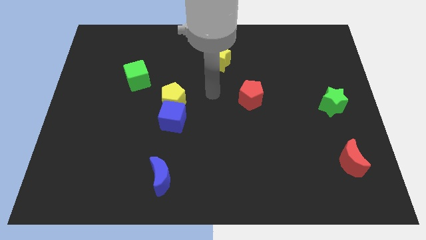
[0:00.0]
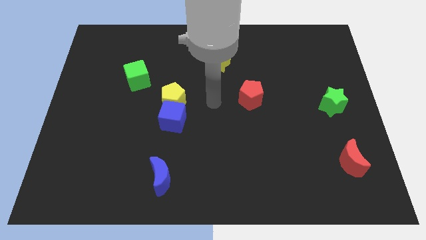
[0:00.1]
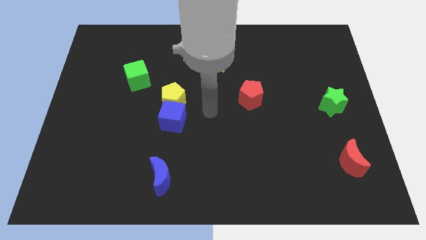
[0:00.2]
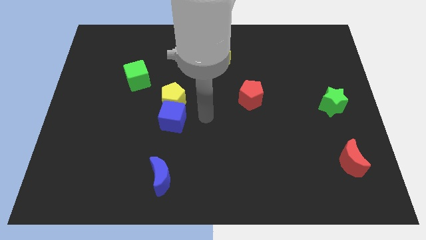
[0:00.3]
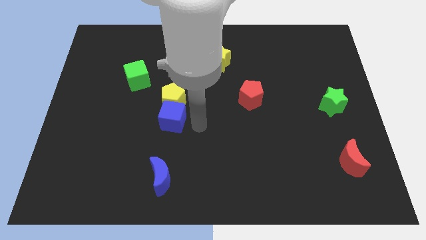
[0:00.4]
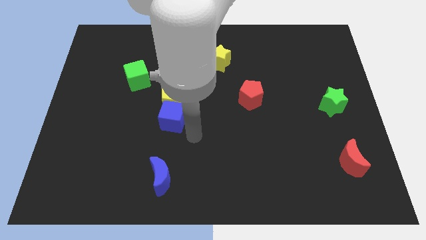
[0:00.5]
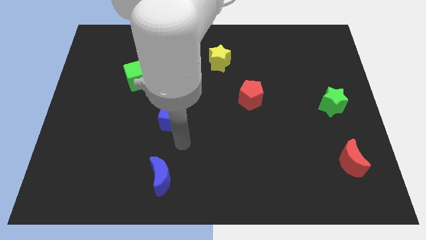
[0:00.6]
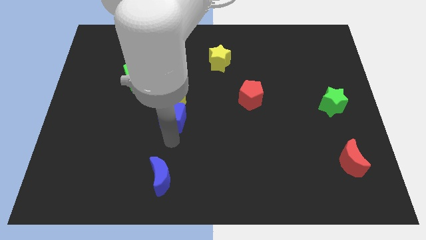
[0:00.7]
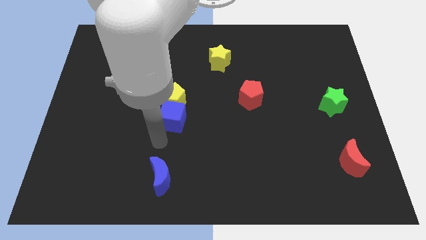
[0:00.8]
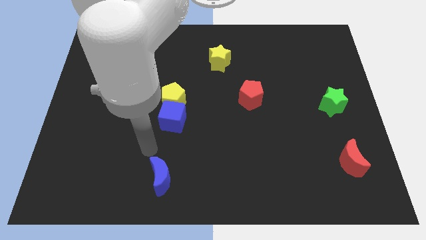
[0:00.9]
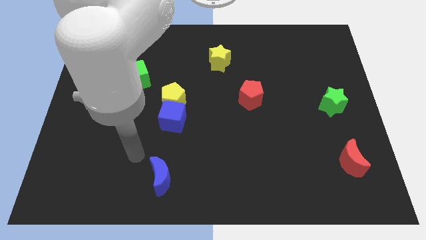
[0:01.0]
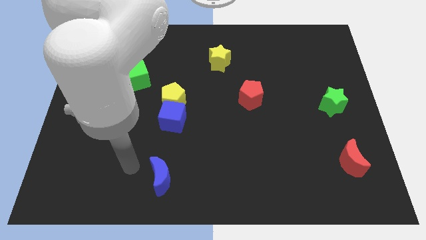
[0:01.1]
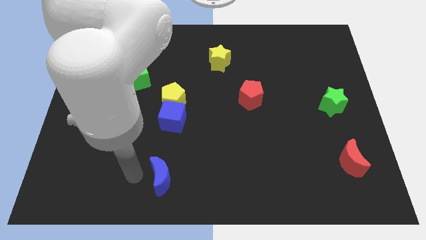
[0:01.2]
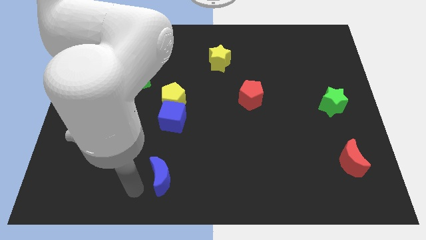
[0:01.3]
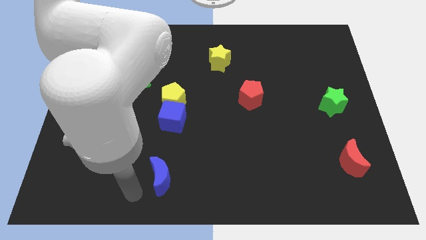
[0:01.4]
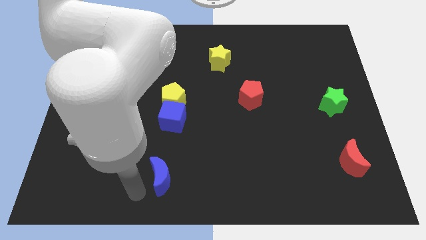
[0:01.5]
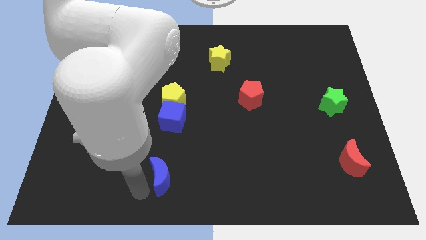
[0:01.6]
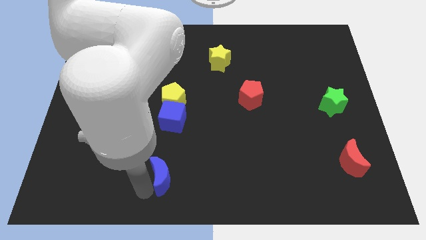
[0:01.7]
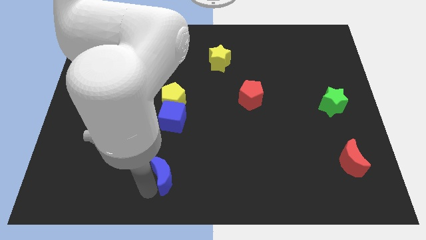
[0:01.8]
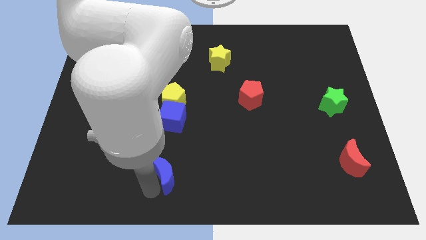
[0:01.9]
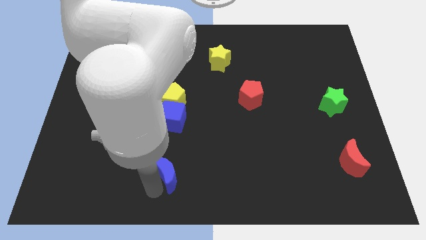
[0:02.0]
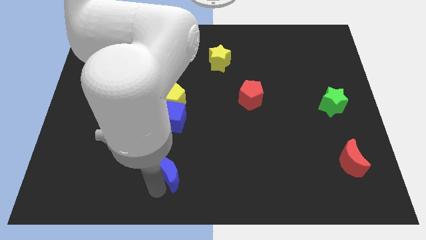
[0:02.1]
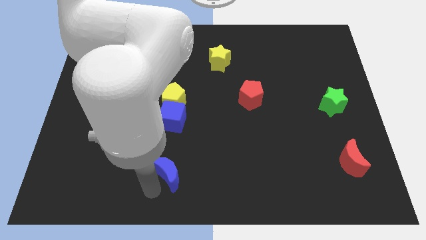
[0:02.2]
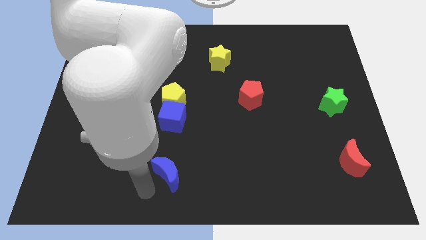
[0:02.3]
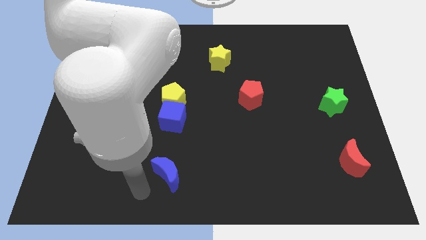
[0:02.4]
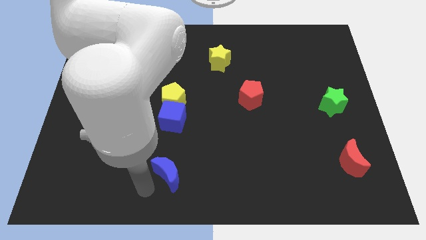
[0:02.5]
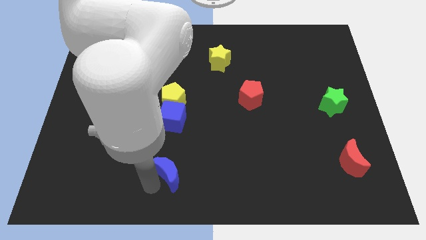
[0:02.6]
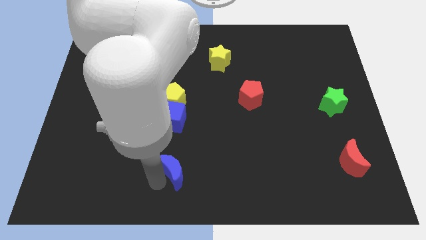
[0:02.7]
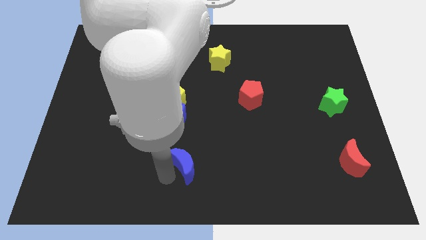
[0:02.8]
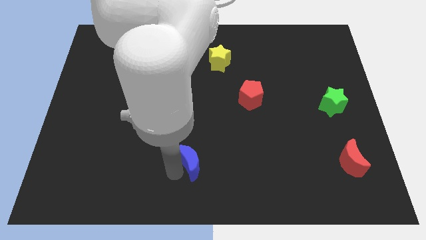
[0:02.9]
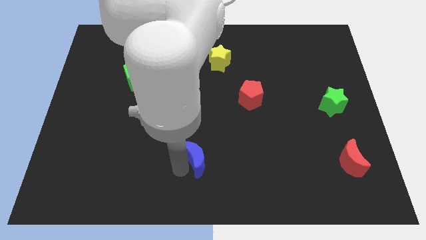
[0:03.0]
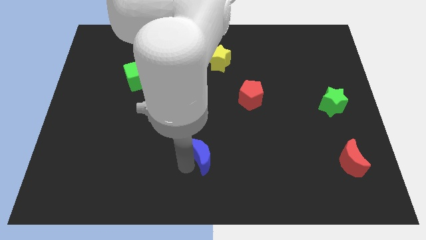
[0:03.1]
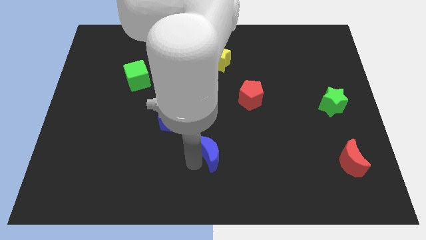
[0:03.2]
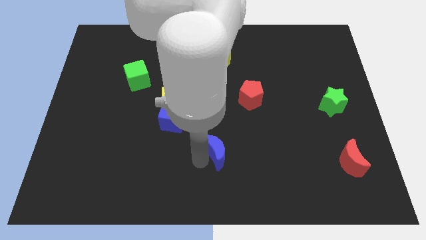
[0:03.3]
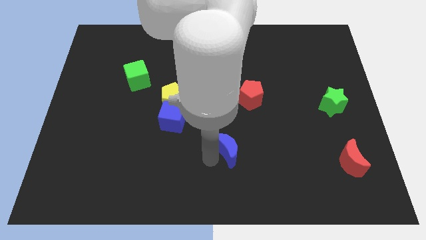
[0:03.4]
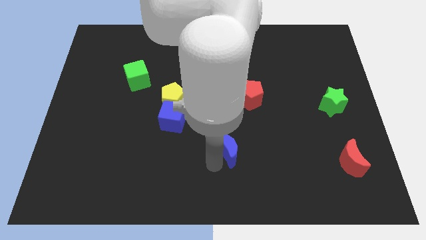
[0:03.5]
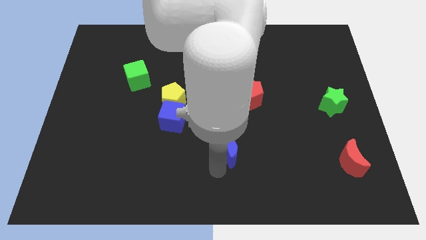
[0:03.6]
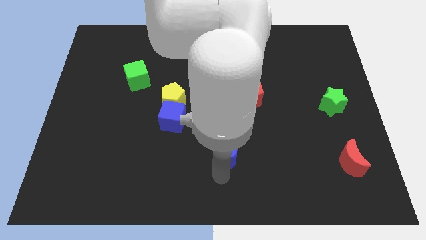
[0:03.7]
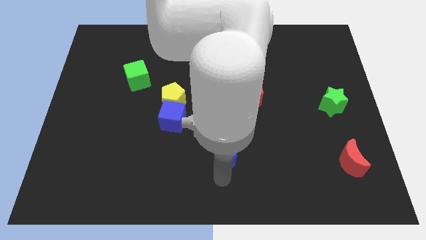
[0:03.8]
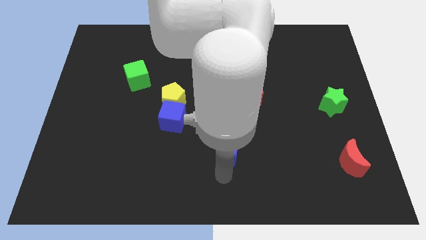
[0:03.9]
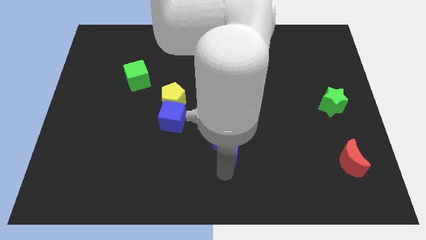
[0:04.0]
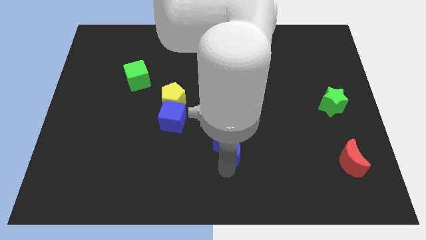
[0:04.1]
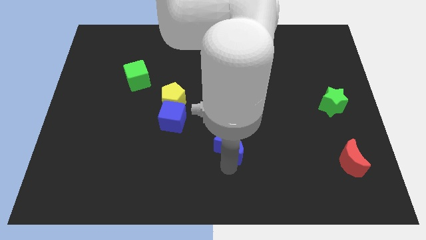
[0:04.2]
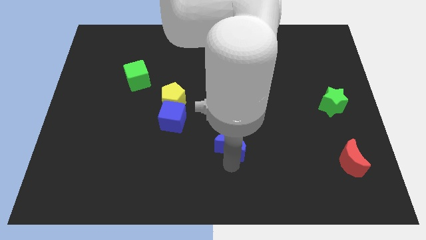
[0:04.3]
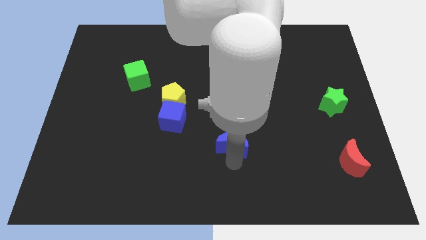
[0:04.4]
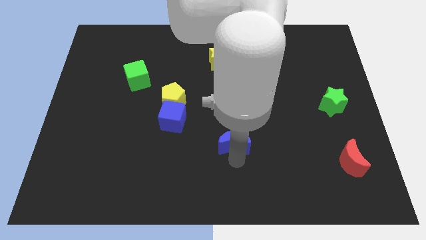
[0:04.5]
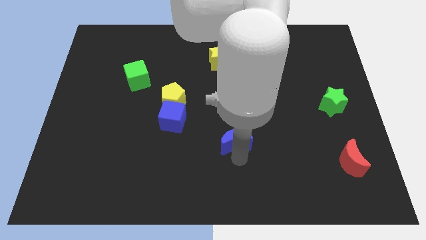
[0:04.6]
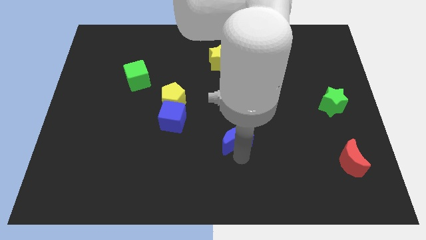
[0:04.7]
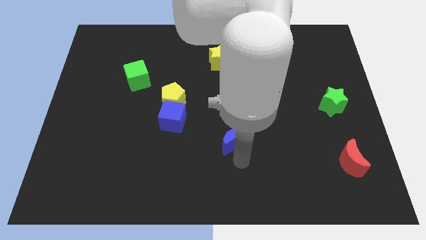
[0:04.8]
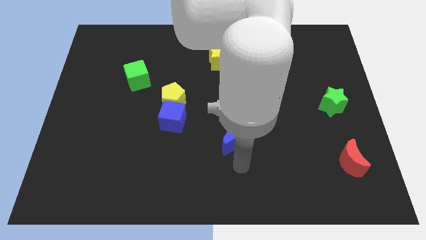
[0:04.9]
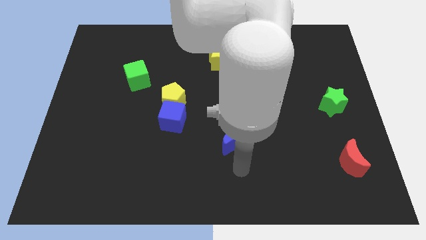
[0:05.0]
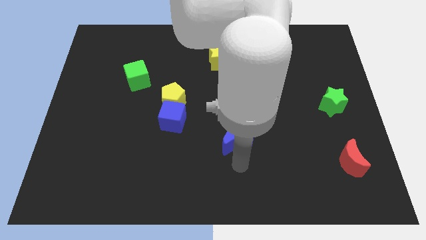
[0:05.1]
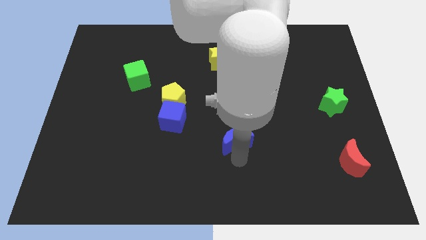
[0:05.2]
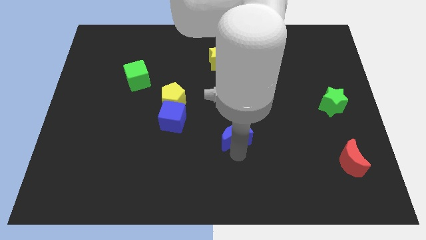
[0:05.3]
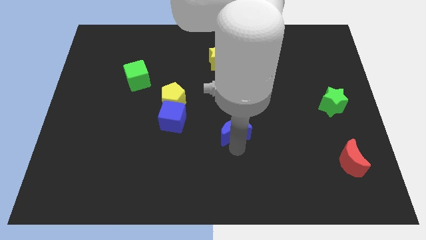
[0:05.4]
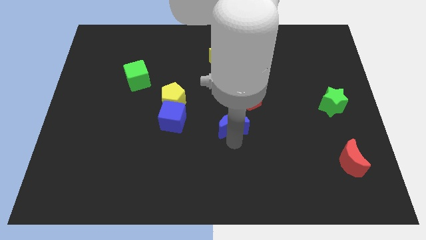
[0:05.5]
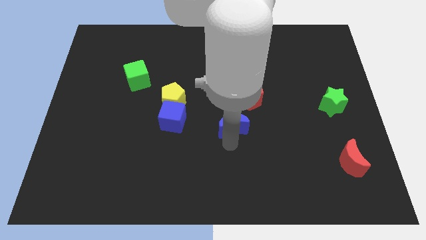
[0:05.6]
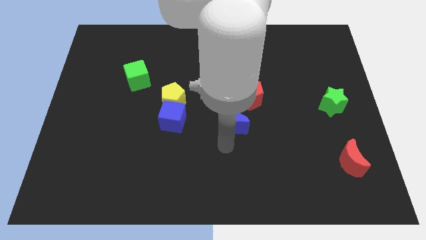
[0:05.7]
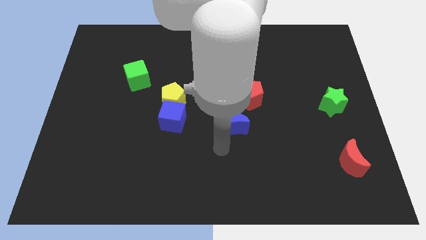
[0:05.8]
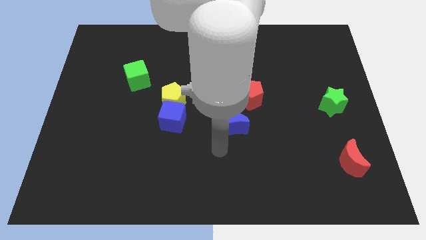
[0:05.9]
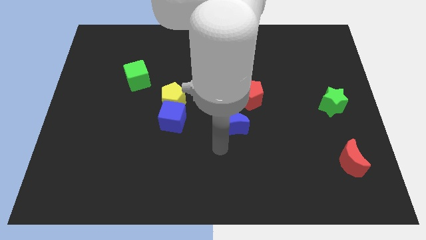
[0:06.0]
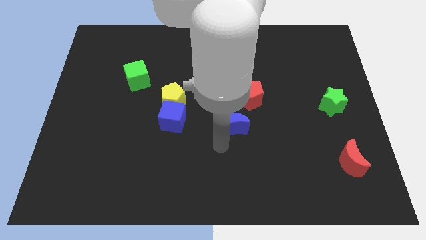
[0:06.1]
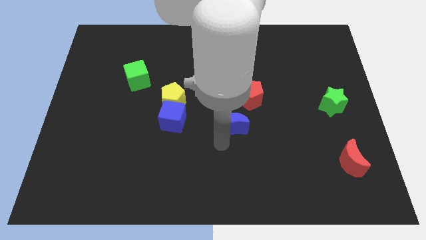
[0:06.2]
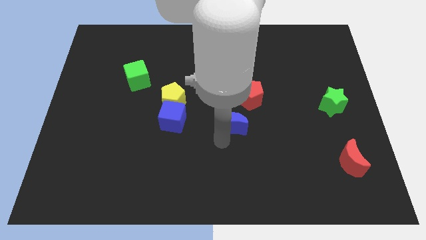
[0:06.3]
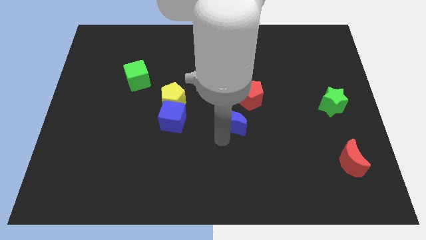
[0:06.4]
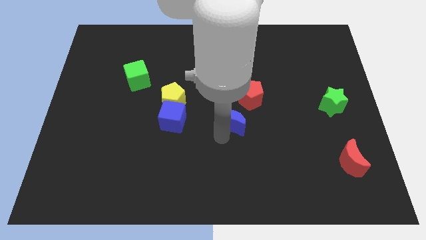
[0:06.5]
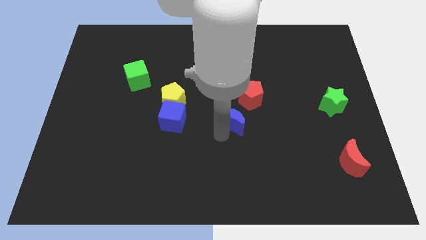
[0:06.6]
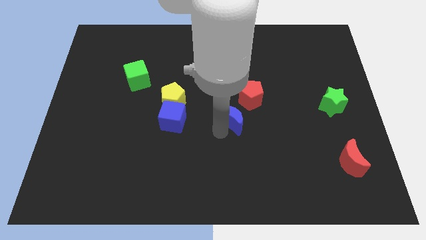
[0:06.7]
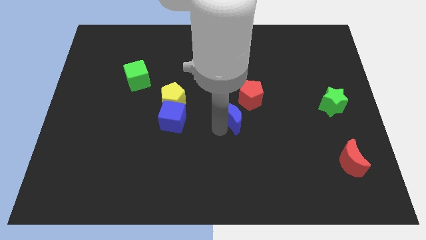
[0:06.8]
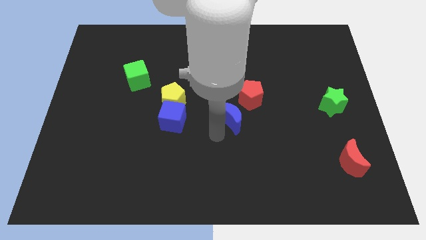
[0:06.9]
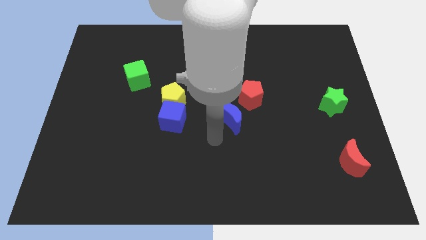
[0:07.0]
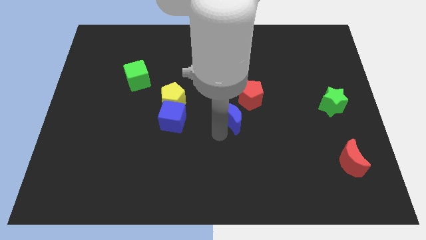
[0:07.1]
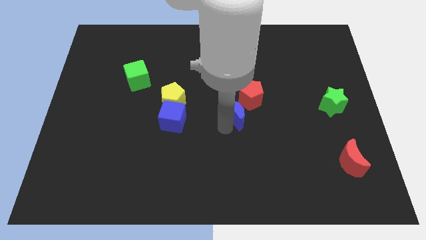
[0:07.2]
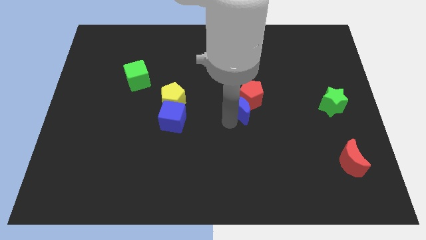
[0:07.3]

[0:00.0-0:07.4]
put the blue moon close to the red pentagon

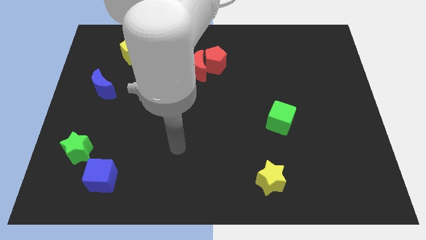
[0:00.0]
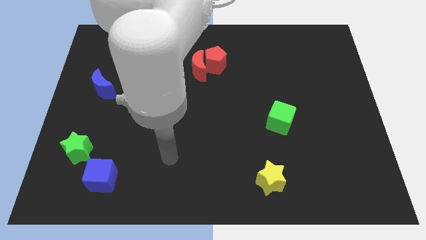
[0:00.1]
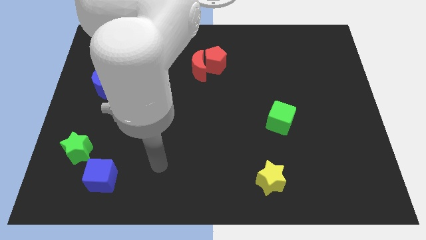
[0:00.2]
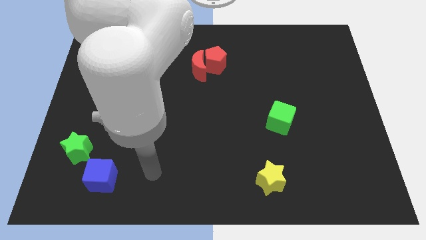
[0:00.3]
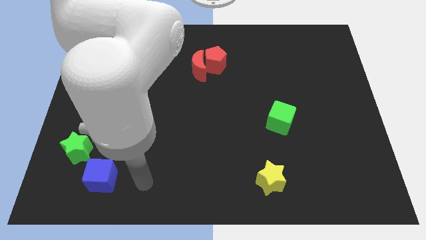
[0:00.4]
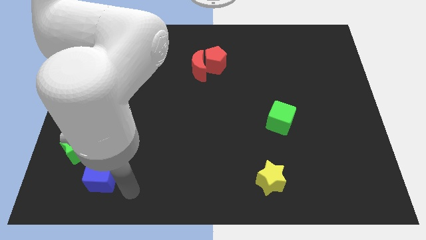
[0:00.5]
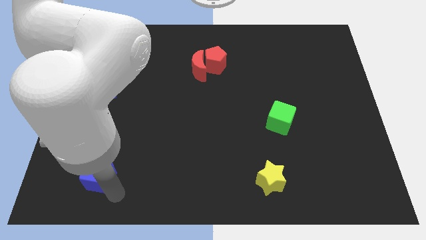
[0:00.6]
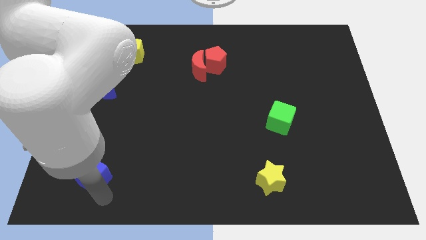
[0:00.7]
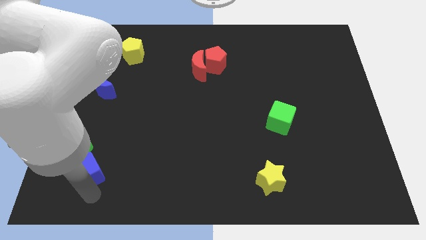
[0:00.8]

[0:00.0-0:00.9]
push the green star to the blue cube

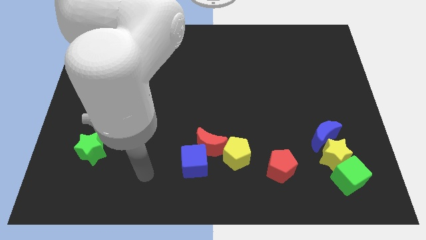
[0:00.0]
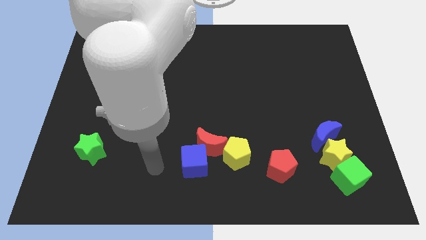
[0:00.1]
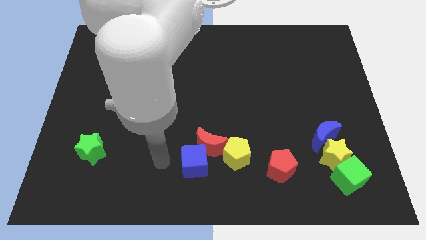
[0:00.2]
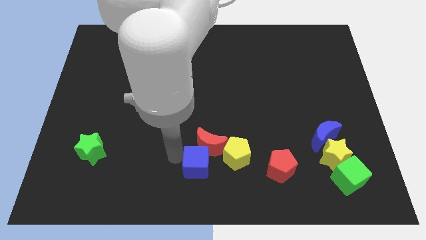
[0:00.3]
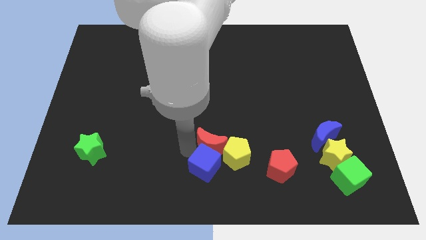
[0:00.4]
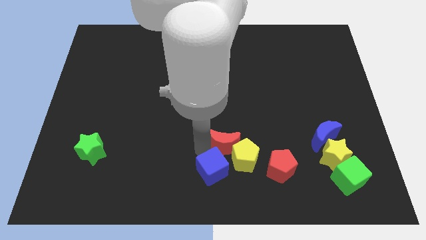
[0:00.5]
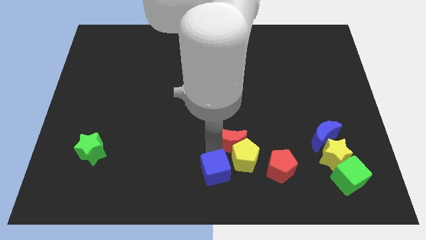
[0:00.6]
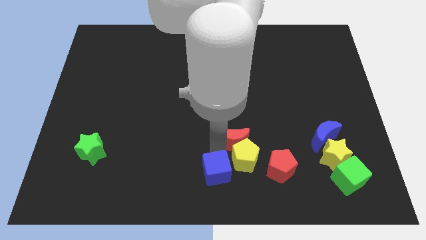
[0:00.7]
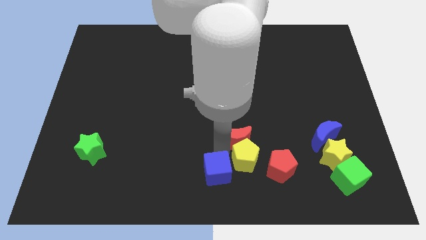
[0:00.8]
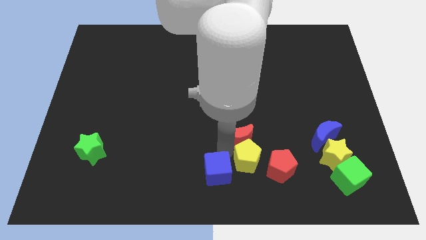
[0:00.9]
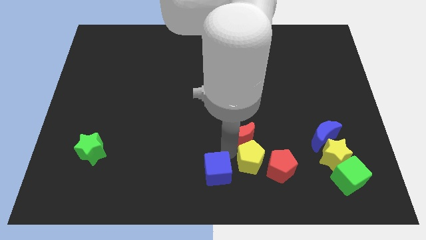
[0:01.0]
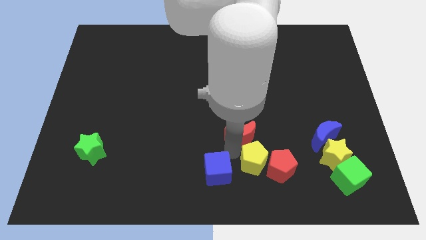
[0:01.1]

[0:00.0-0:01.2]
move the yellow pentagon to the red pentagon
